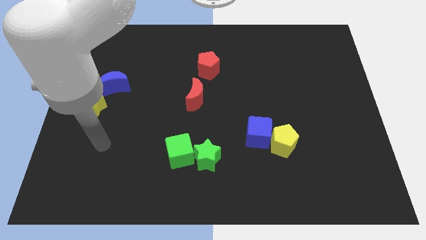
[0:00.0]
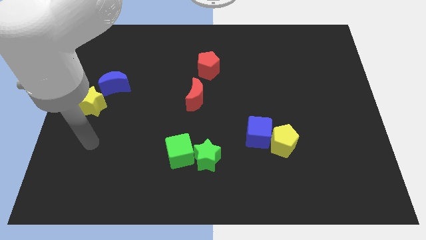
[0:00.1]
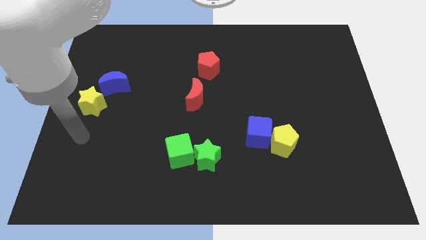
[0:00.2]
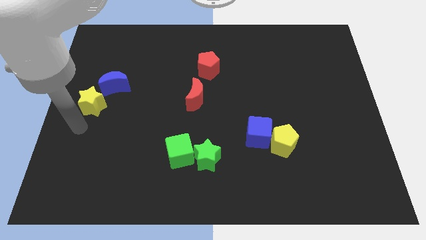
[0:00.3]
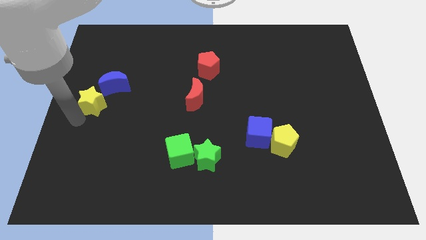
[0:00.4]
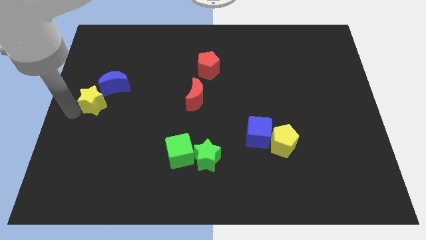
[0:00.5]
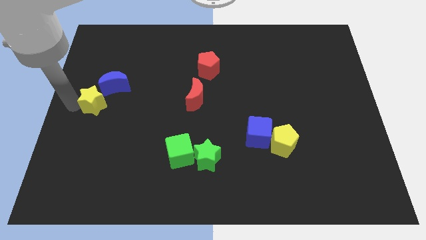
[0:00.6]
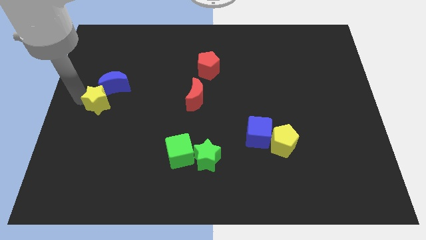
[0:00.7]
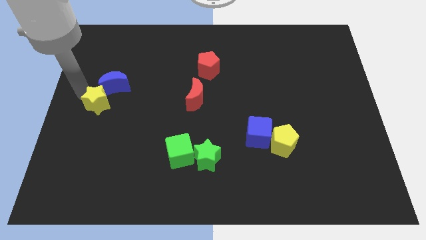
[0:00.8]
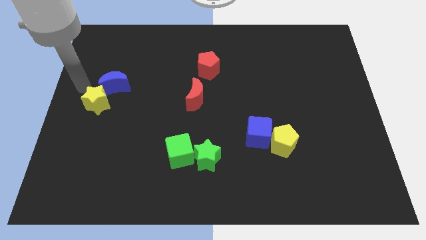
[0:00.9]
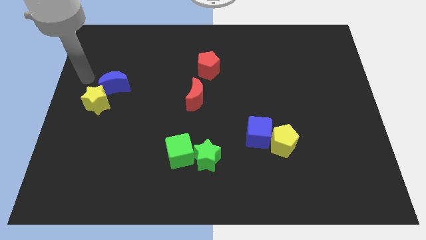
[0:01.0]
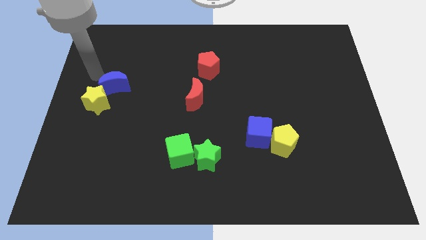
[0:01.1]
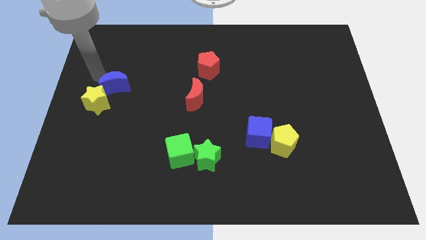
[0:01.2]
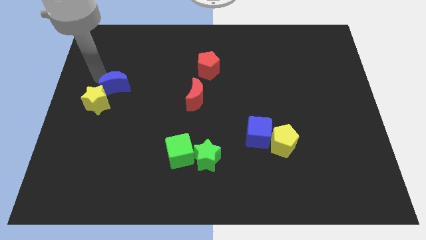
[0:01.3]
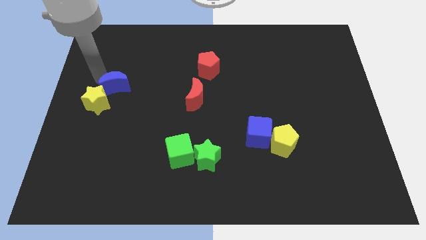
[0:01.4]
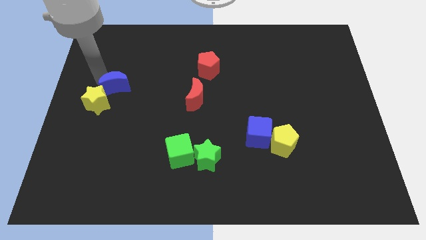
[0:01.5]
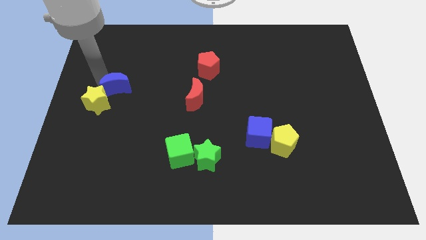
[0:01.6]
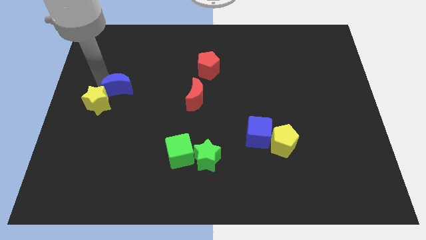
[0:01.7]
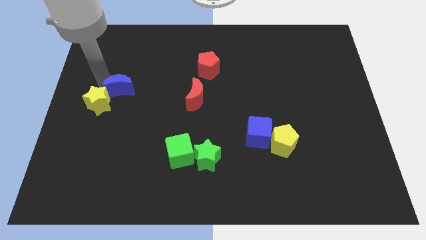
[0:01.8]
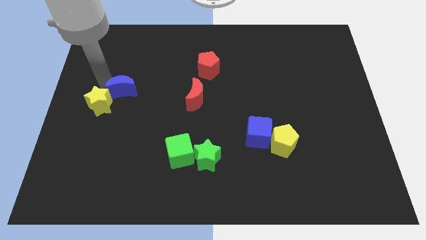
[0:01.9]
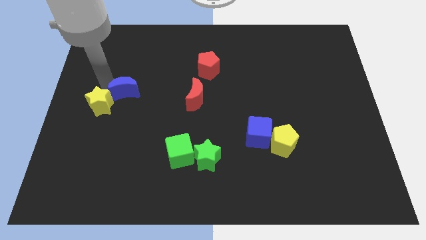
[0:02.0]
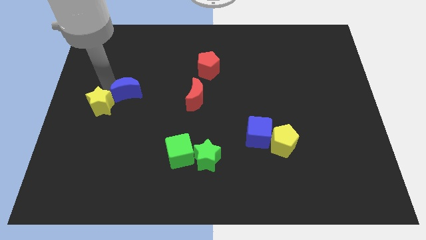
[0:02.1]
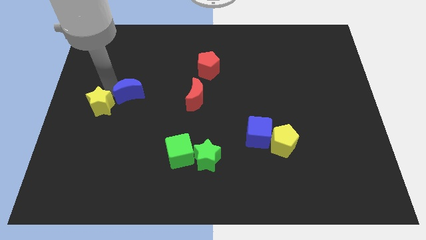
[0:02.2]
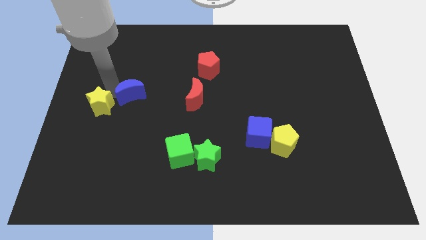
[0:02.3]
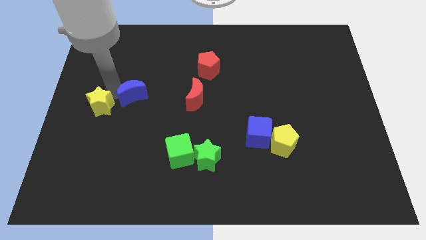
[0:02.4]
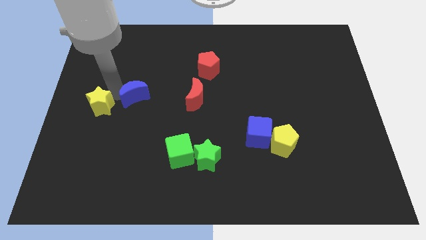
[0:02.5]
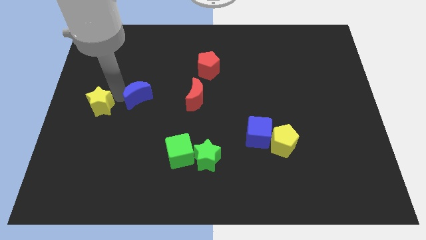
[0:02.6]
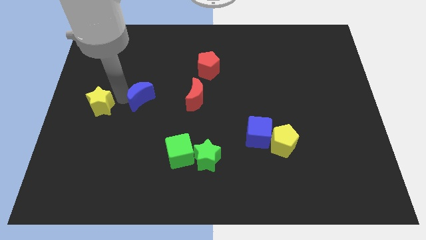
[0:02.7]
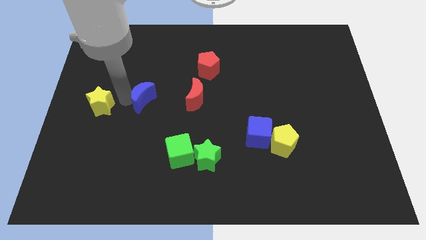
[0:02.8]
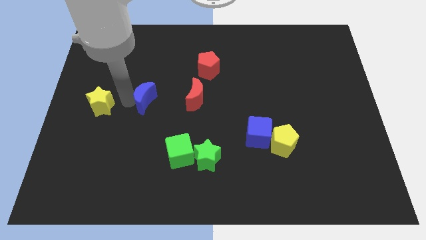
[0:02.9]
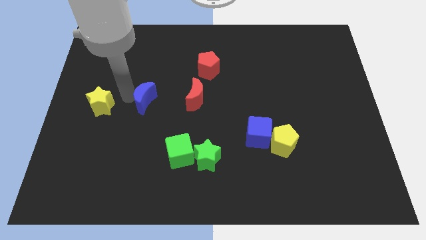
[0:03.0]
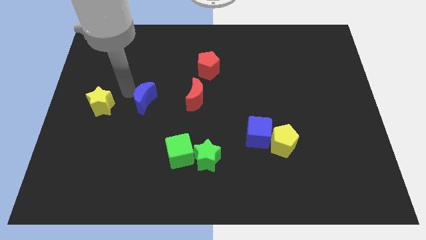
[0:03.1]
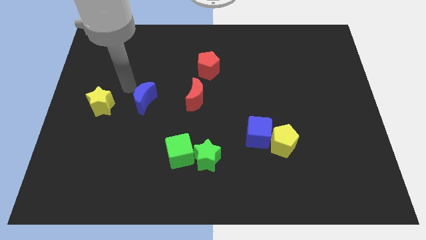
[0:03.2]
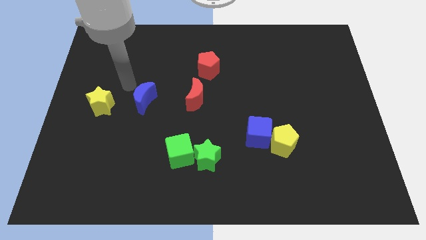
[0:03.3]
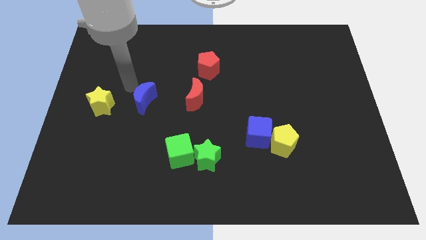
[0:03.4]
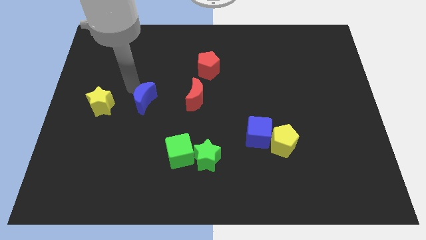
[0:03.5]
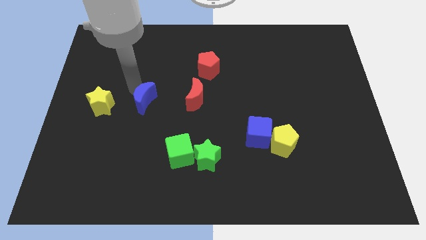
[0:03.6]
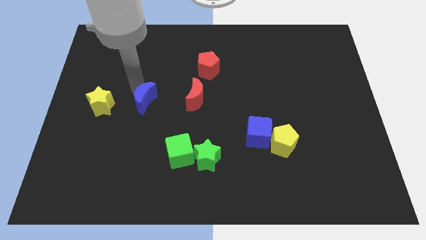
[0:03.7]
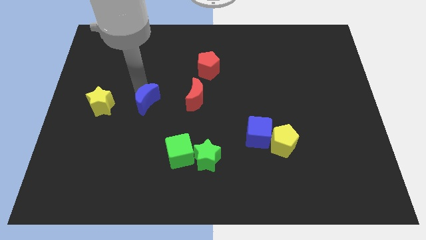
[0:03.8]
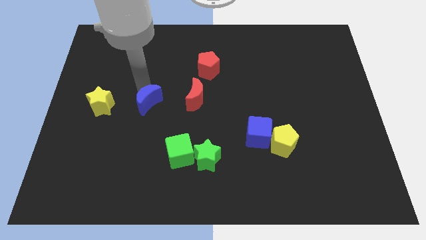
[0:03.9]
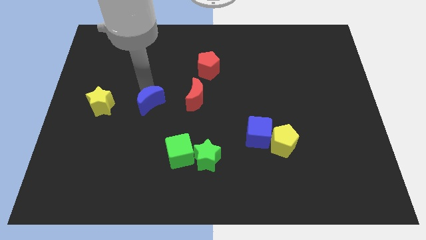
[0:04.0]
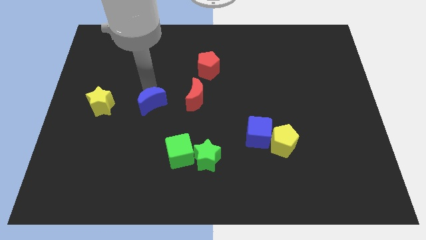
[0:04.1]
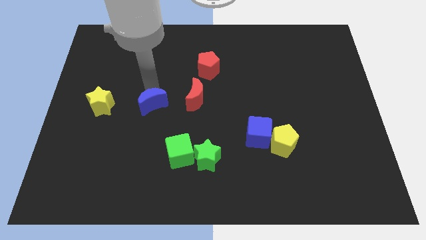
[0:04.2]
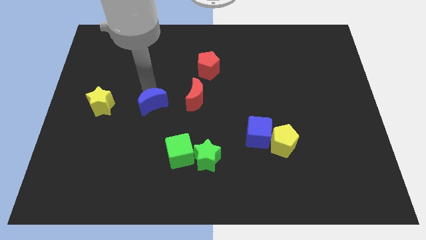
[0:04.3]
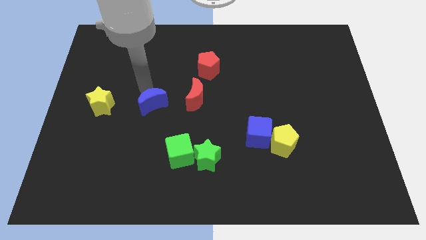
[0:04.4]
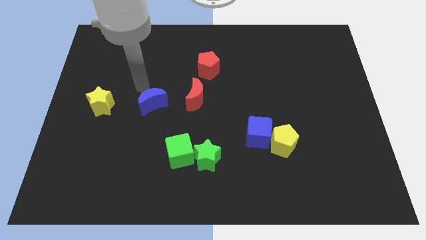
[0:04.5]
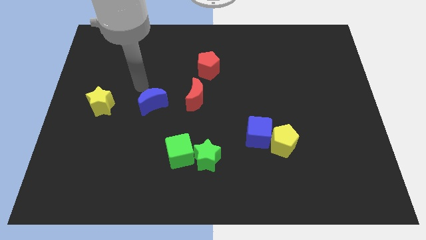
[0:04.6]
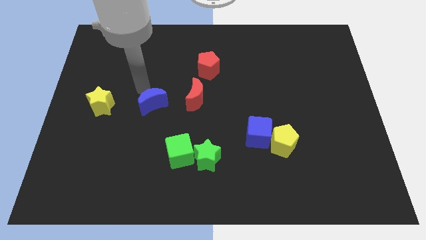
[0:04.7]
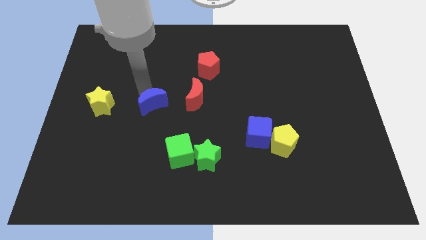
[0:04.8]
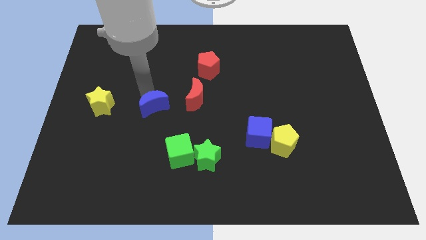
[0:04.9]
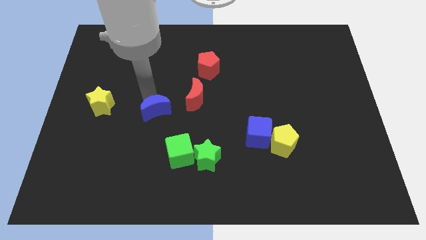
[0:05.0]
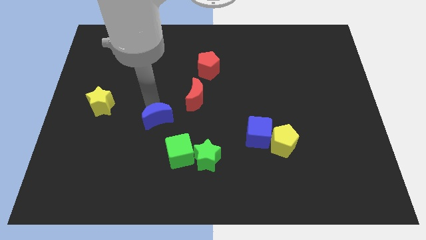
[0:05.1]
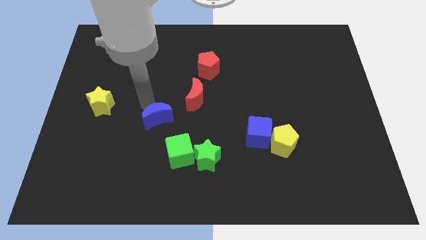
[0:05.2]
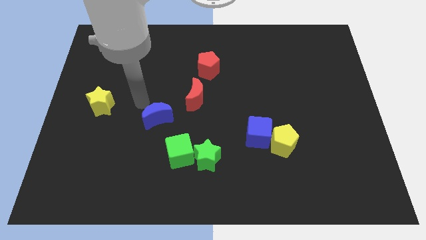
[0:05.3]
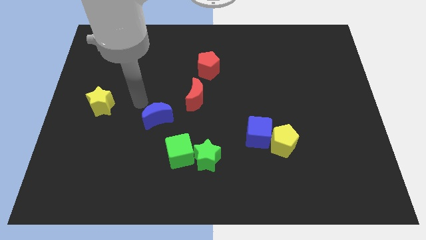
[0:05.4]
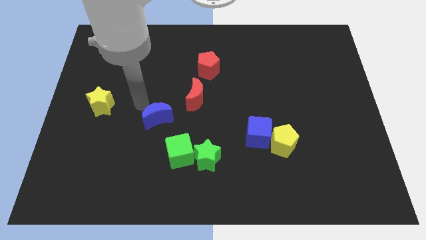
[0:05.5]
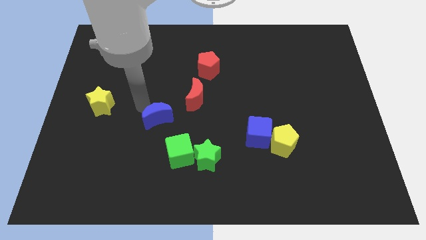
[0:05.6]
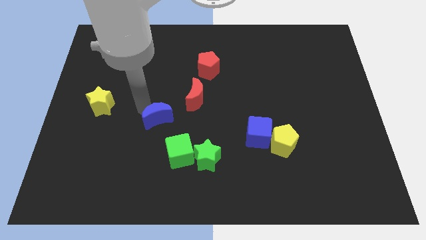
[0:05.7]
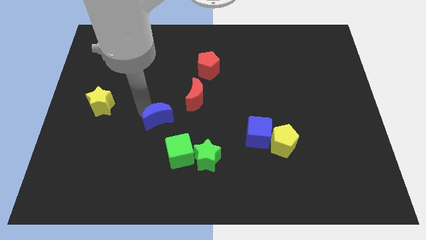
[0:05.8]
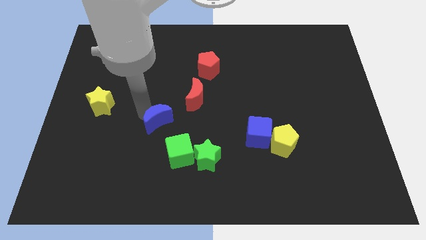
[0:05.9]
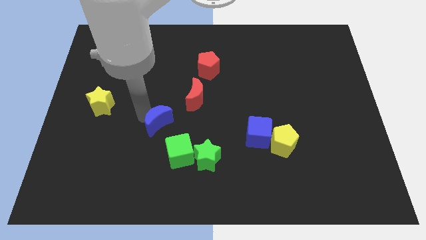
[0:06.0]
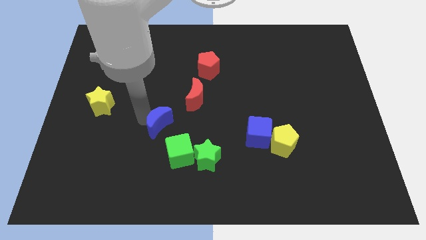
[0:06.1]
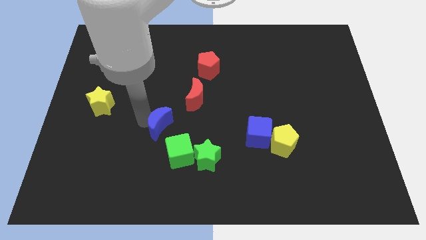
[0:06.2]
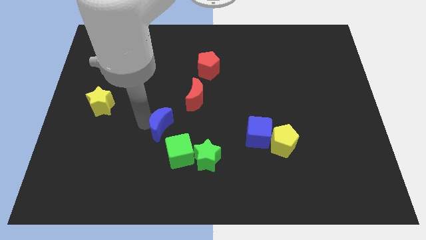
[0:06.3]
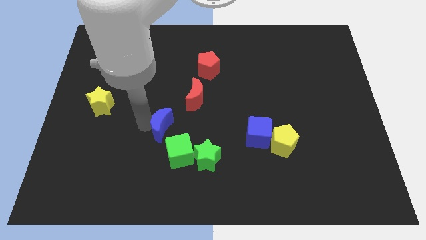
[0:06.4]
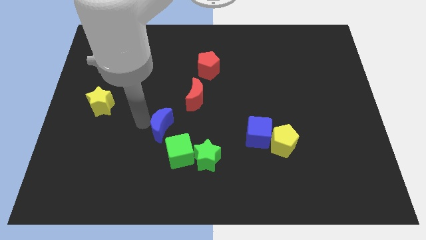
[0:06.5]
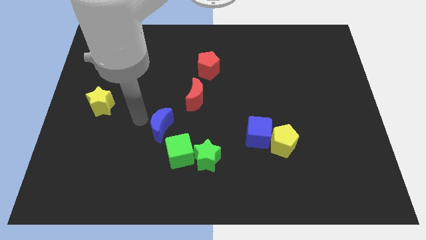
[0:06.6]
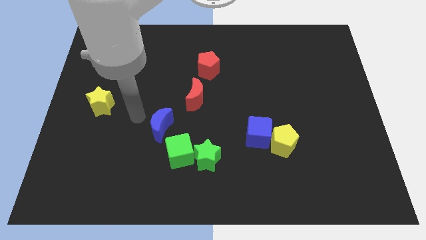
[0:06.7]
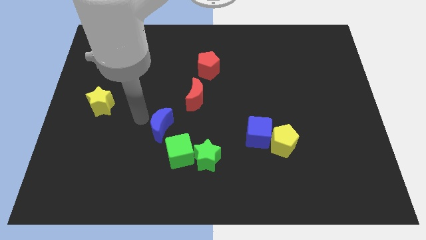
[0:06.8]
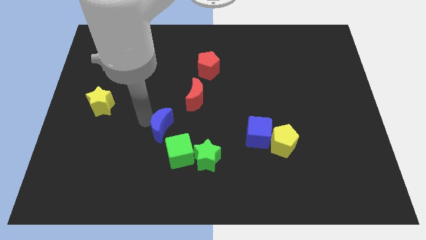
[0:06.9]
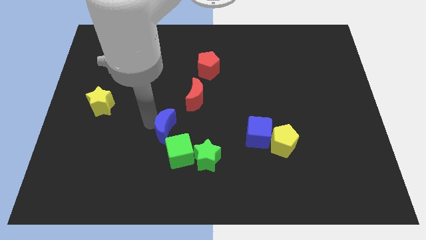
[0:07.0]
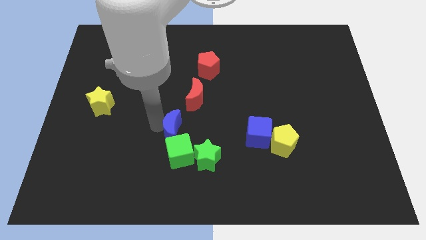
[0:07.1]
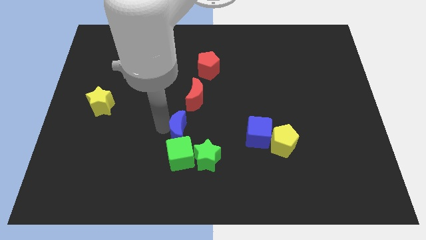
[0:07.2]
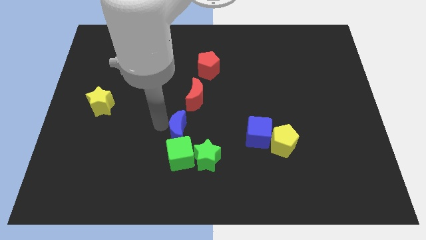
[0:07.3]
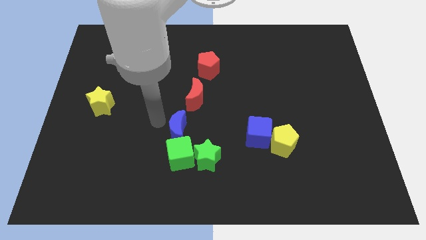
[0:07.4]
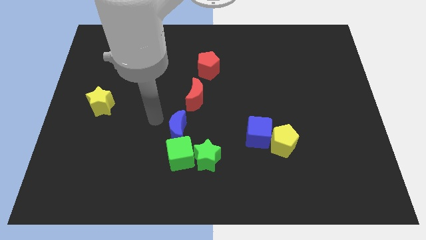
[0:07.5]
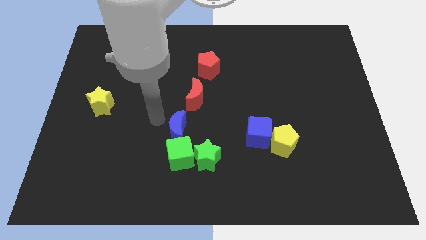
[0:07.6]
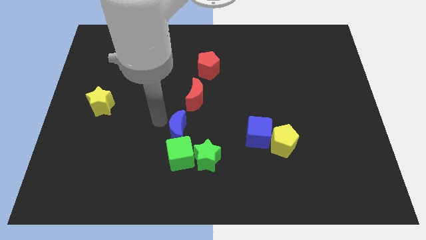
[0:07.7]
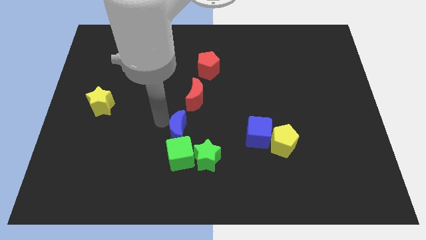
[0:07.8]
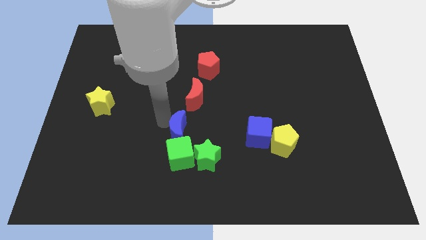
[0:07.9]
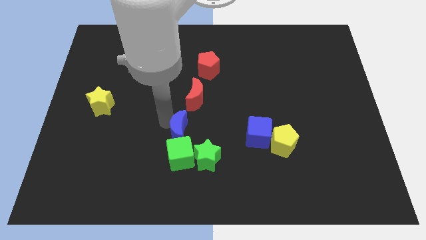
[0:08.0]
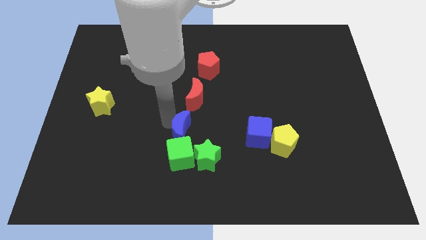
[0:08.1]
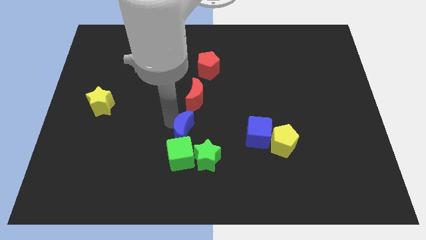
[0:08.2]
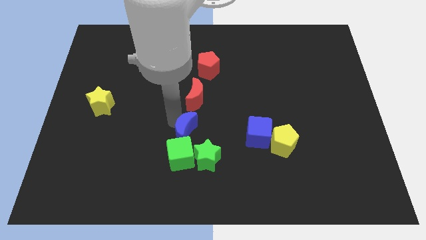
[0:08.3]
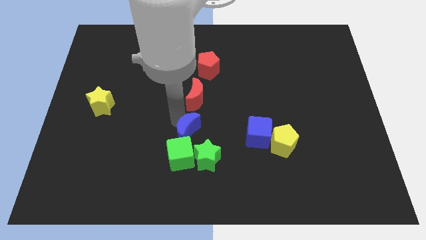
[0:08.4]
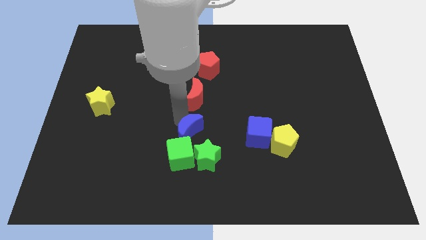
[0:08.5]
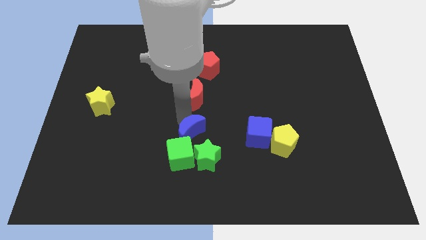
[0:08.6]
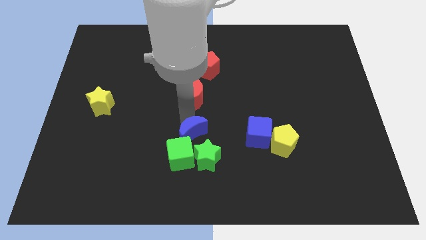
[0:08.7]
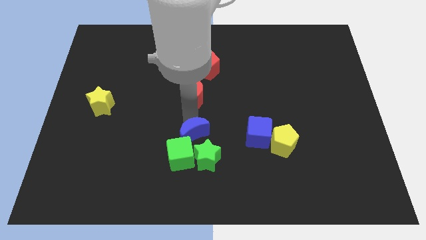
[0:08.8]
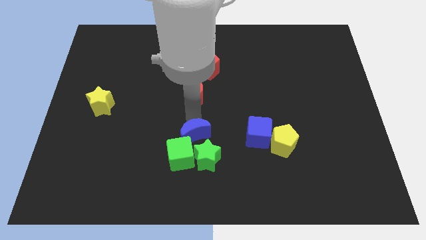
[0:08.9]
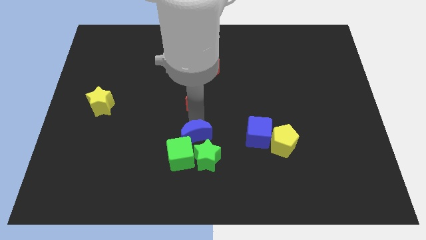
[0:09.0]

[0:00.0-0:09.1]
slide the blue moon next to the green star
